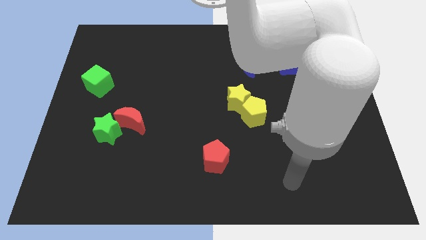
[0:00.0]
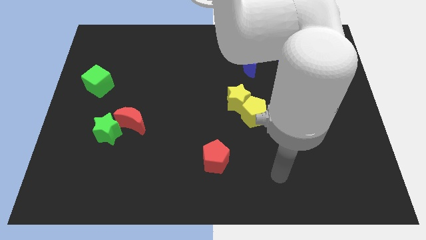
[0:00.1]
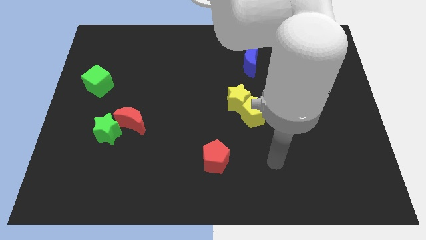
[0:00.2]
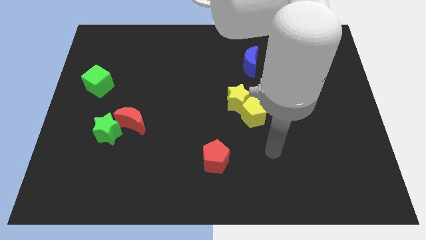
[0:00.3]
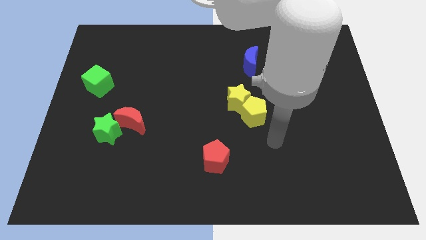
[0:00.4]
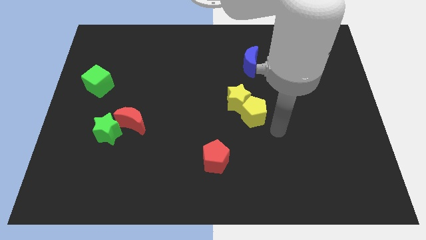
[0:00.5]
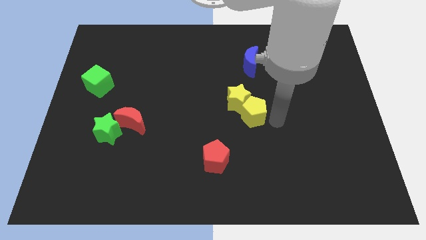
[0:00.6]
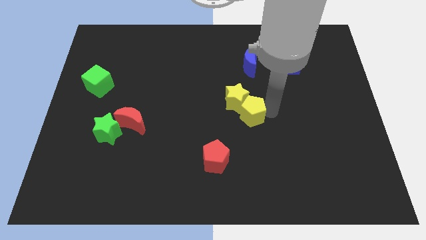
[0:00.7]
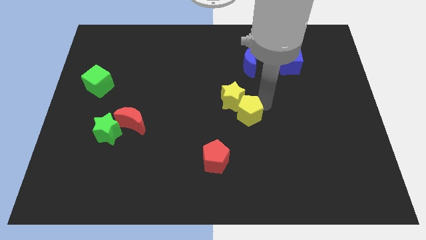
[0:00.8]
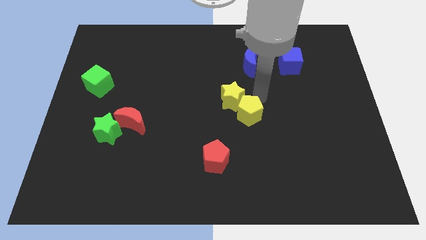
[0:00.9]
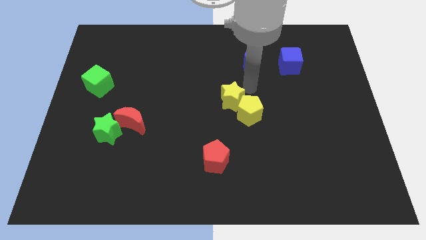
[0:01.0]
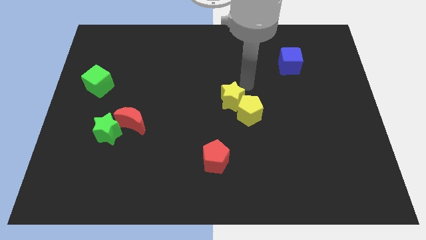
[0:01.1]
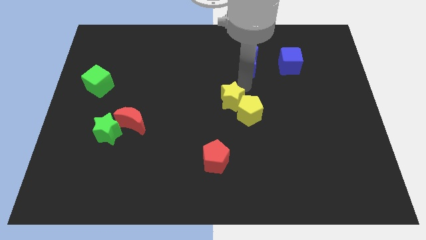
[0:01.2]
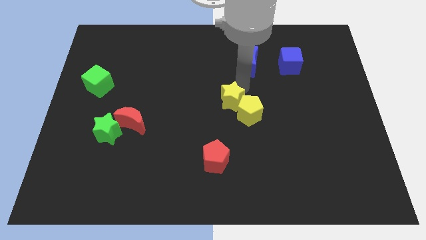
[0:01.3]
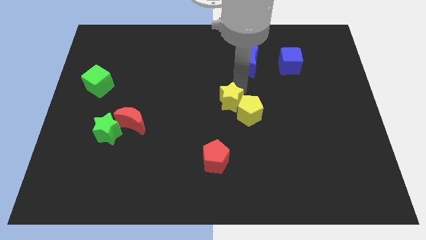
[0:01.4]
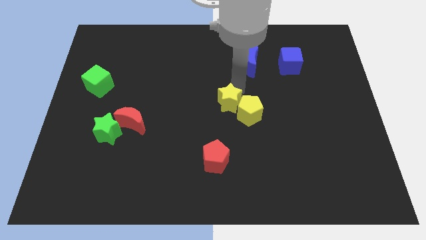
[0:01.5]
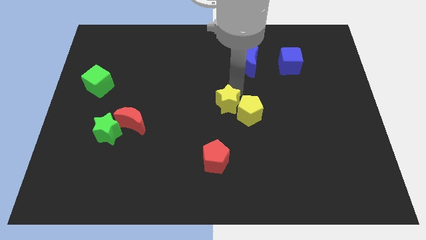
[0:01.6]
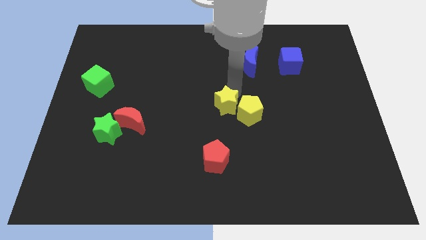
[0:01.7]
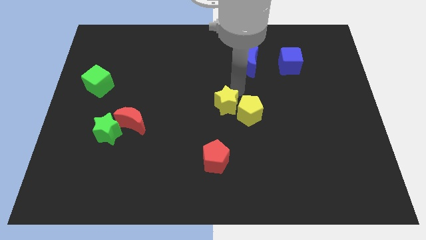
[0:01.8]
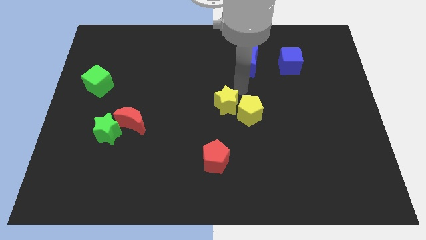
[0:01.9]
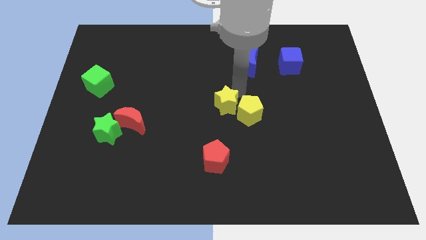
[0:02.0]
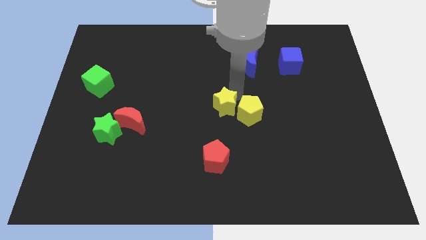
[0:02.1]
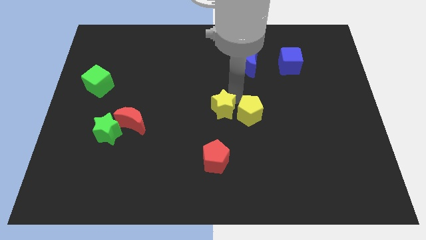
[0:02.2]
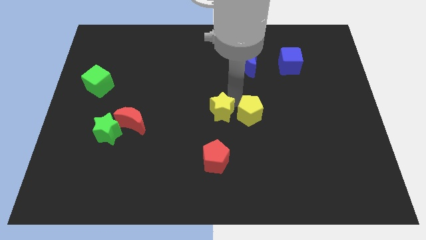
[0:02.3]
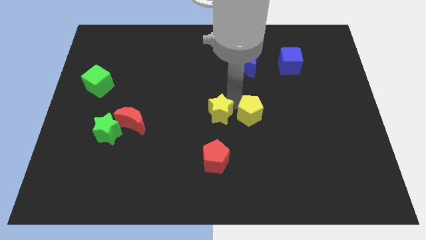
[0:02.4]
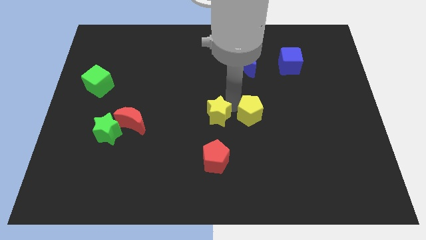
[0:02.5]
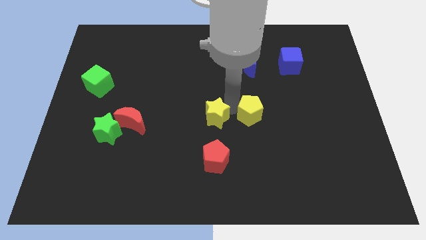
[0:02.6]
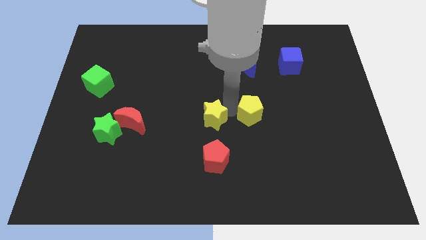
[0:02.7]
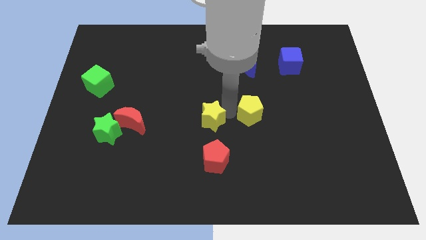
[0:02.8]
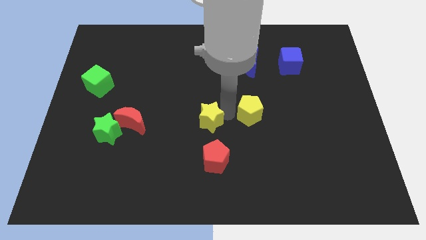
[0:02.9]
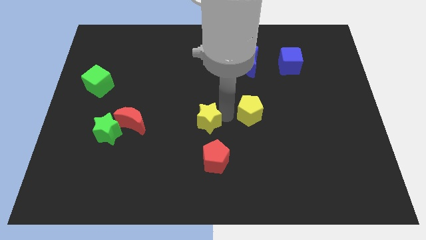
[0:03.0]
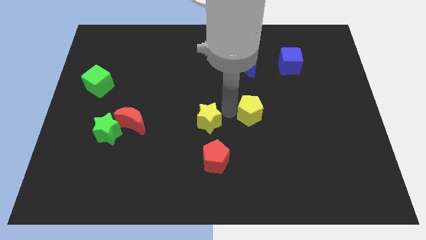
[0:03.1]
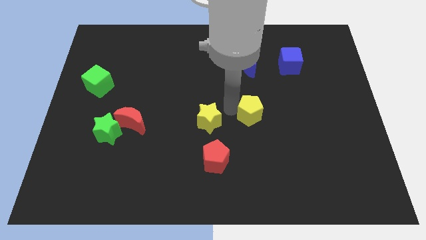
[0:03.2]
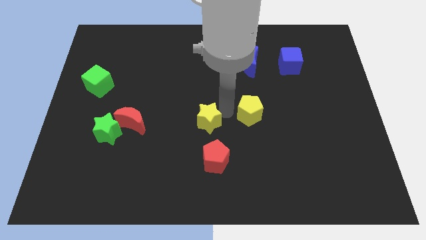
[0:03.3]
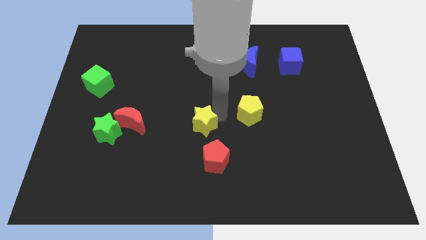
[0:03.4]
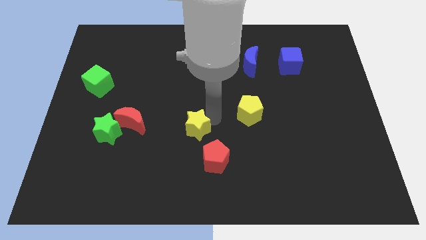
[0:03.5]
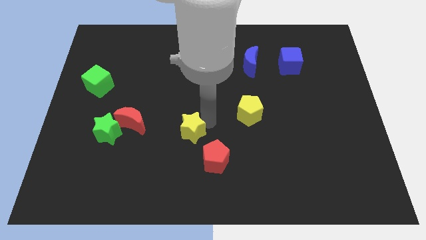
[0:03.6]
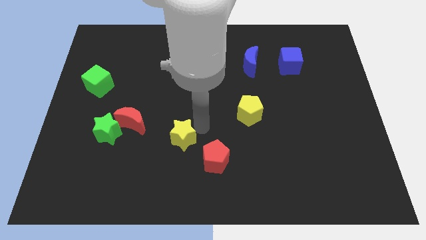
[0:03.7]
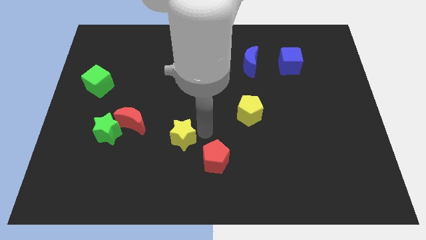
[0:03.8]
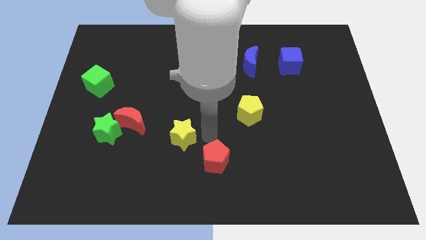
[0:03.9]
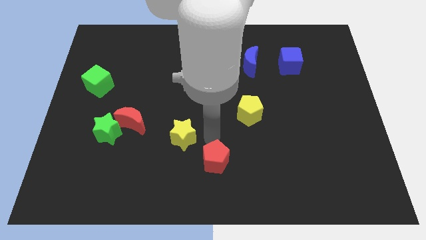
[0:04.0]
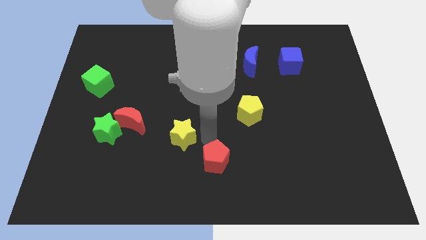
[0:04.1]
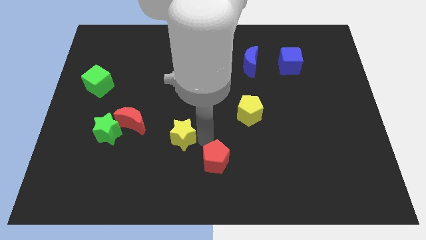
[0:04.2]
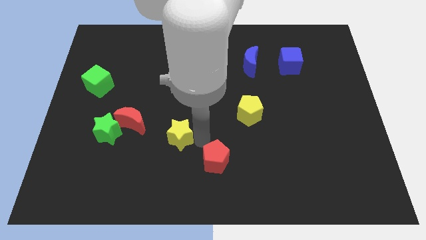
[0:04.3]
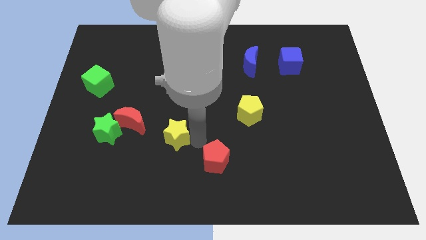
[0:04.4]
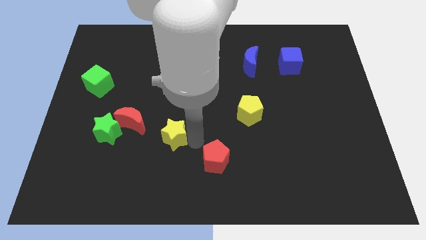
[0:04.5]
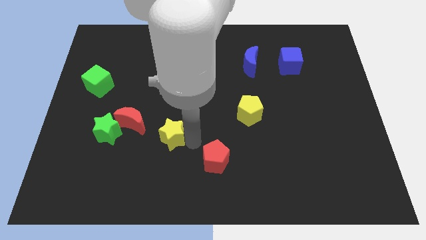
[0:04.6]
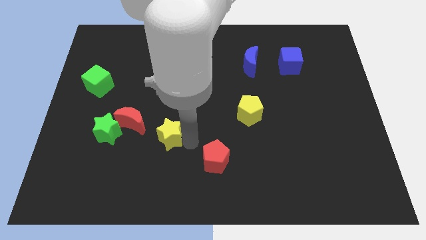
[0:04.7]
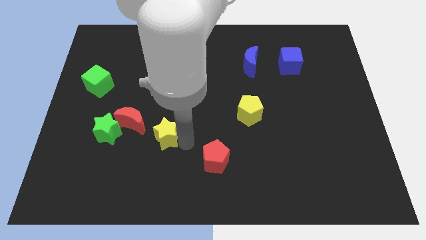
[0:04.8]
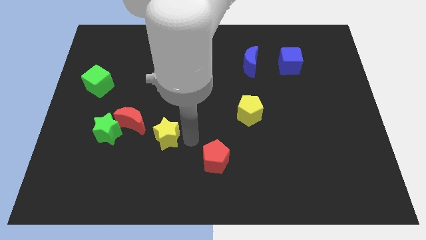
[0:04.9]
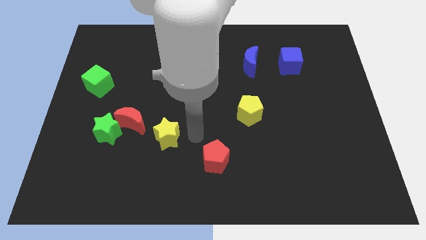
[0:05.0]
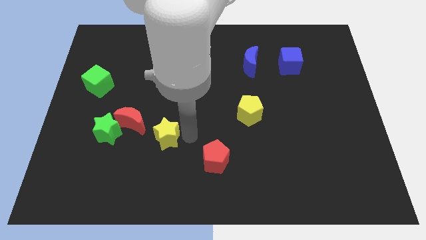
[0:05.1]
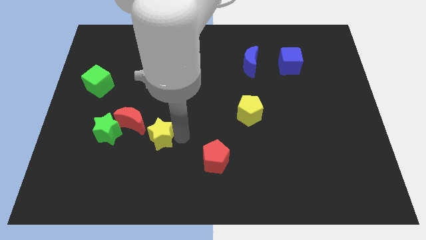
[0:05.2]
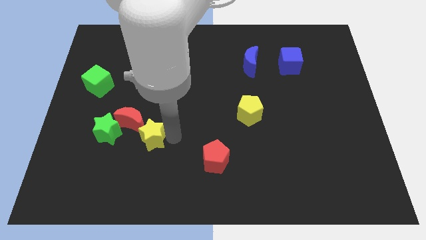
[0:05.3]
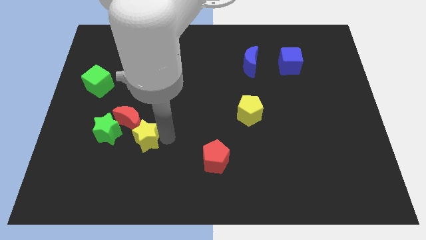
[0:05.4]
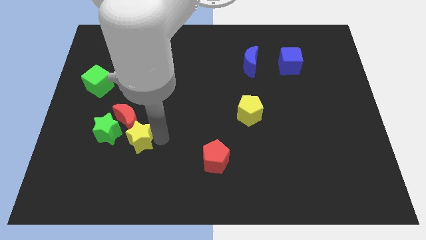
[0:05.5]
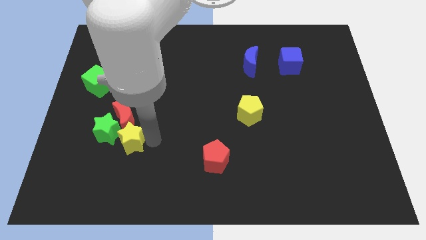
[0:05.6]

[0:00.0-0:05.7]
put the yellow star towards the green star

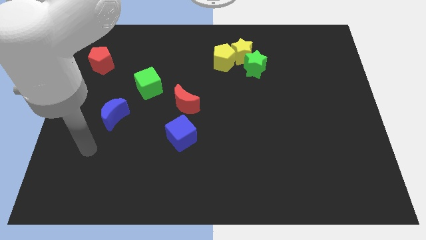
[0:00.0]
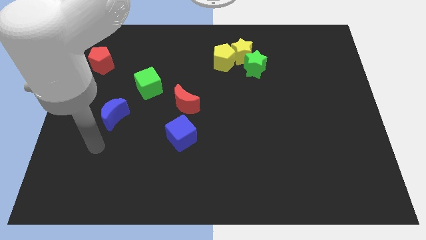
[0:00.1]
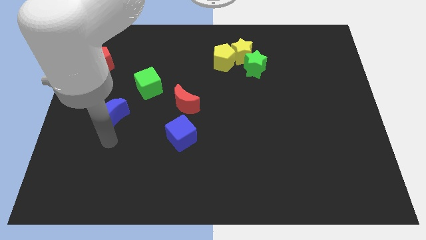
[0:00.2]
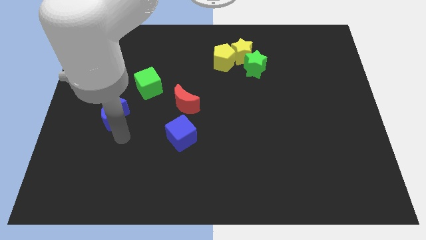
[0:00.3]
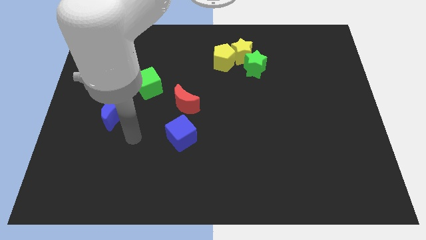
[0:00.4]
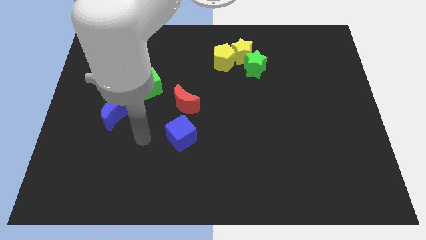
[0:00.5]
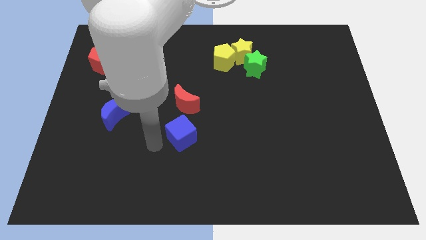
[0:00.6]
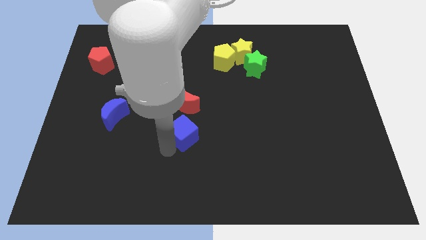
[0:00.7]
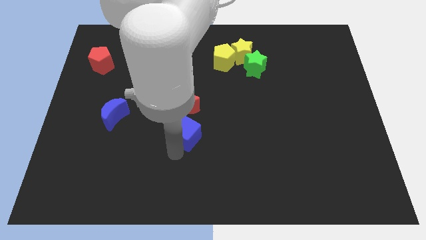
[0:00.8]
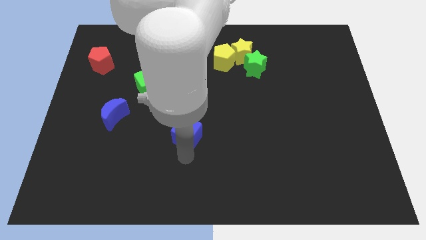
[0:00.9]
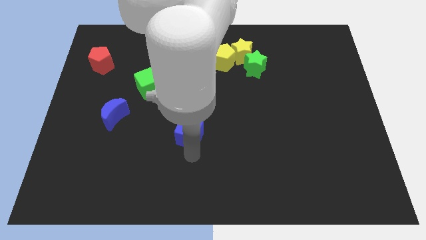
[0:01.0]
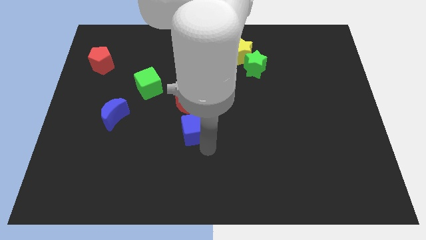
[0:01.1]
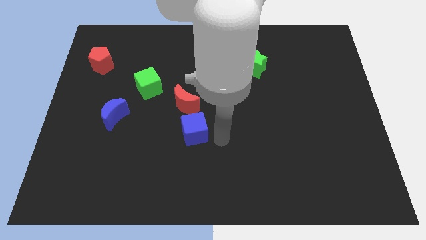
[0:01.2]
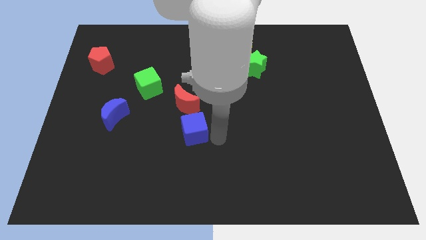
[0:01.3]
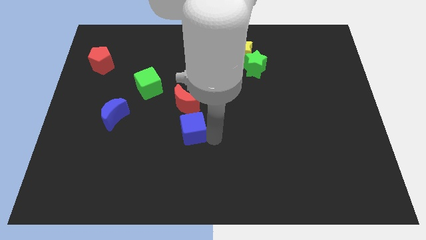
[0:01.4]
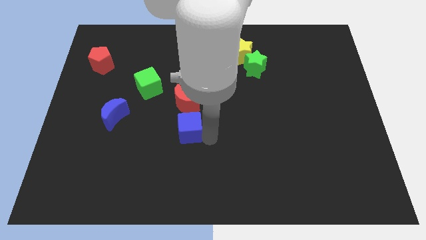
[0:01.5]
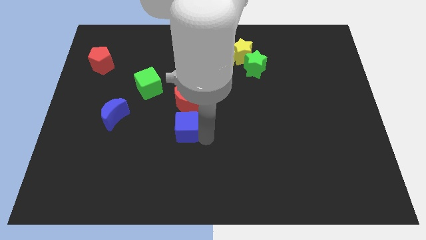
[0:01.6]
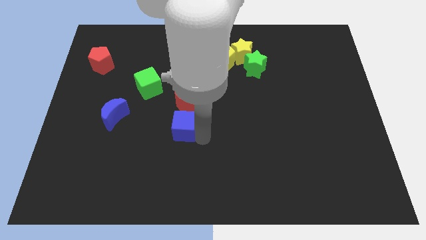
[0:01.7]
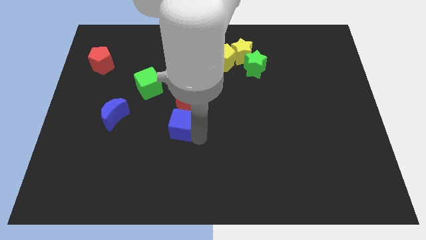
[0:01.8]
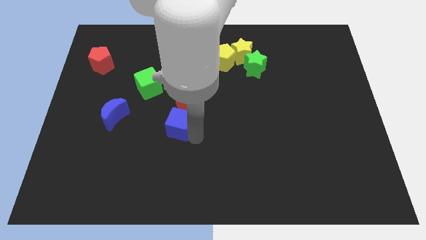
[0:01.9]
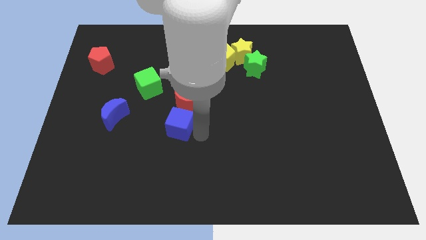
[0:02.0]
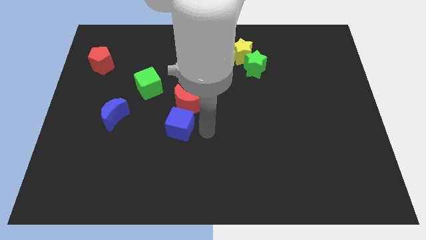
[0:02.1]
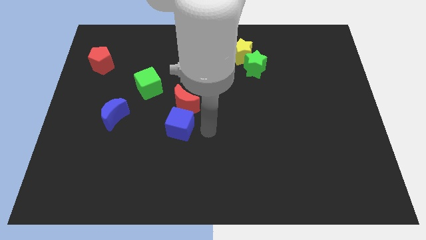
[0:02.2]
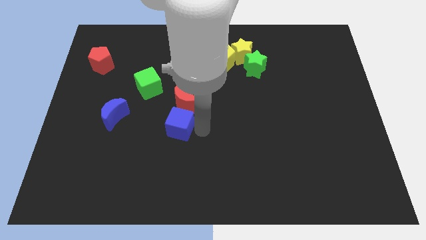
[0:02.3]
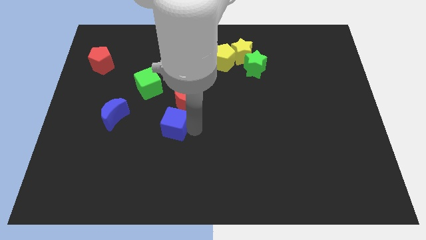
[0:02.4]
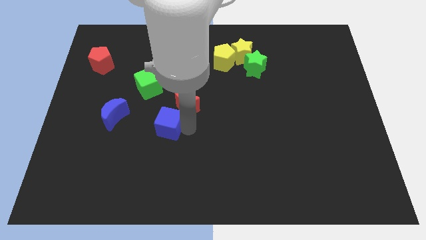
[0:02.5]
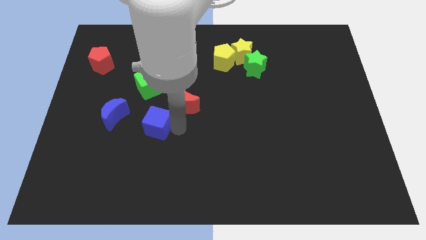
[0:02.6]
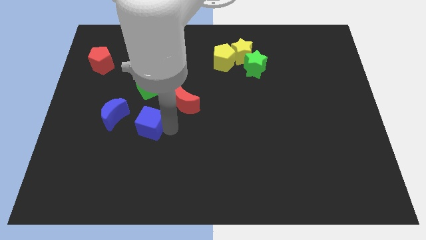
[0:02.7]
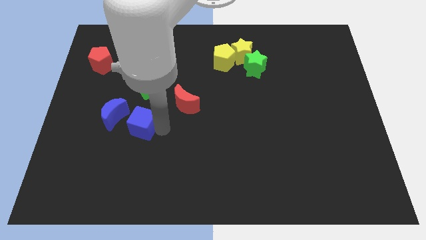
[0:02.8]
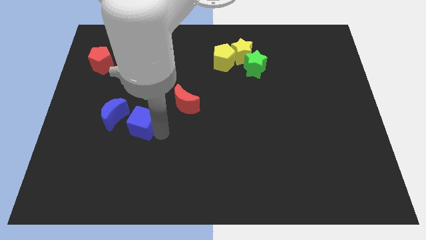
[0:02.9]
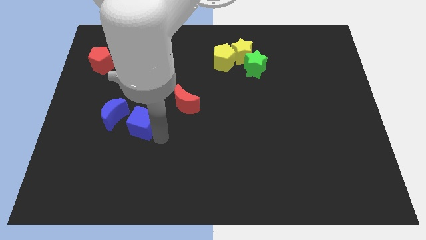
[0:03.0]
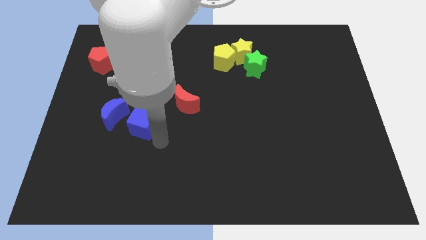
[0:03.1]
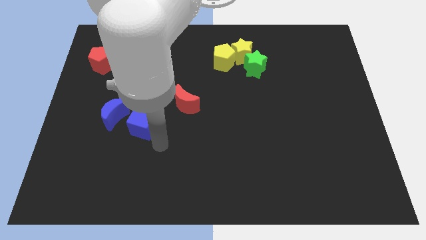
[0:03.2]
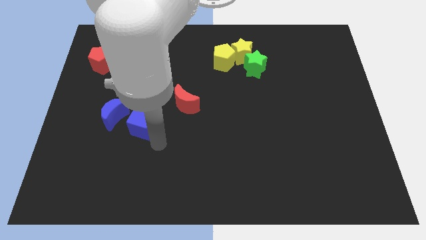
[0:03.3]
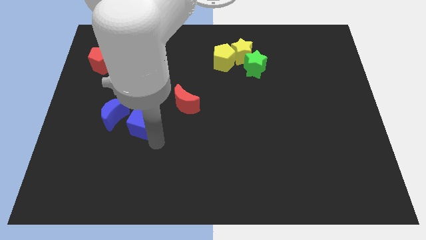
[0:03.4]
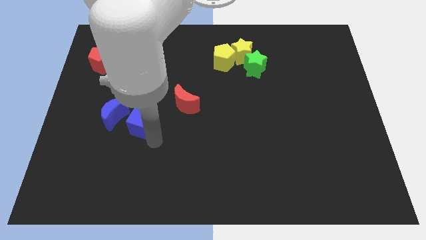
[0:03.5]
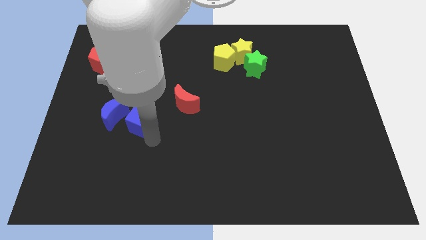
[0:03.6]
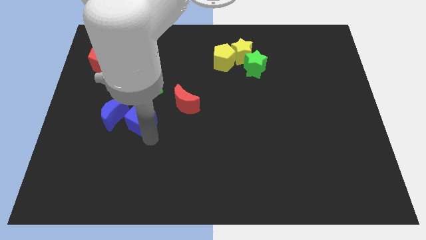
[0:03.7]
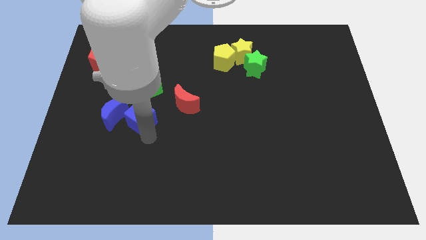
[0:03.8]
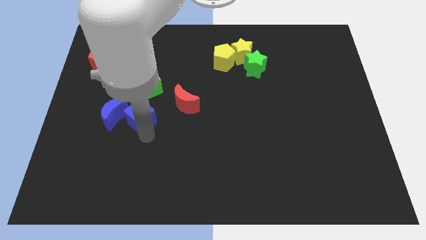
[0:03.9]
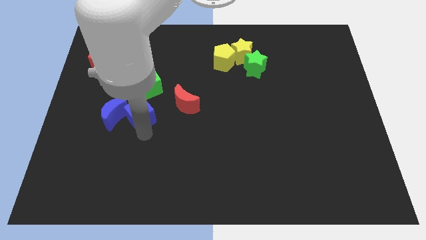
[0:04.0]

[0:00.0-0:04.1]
push the blue cube next to the blue moon
